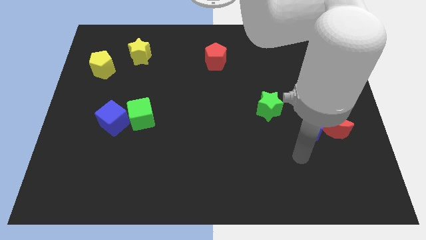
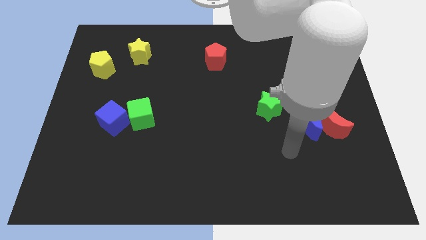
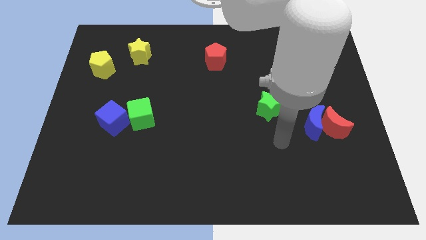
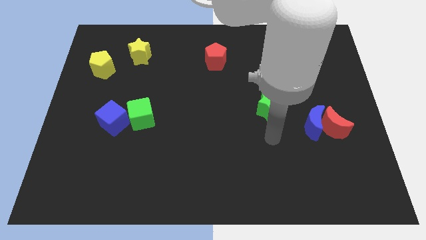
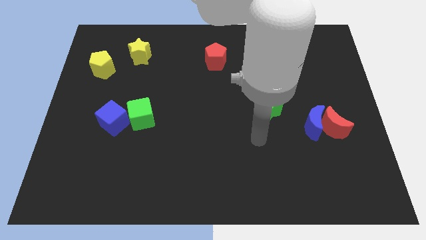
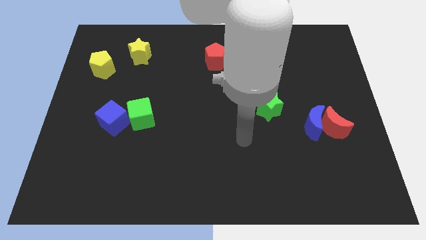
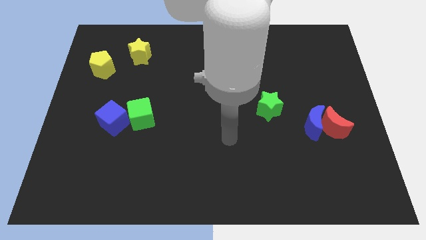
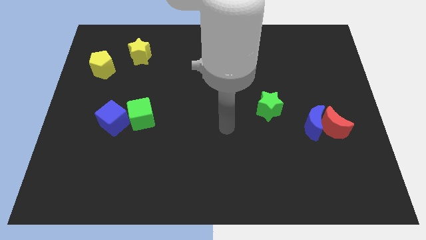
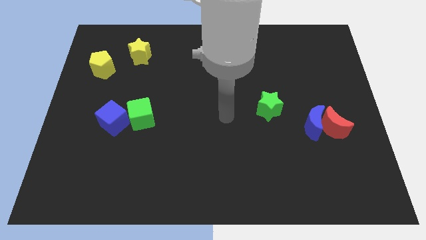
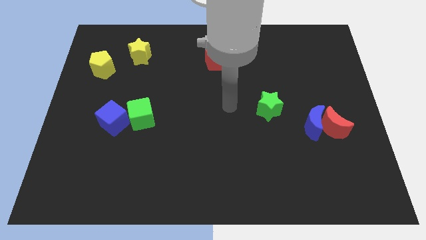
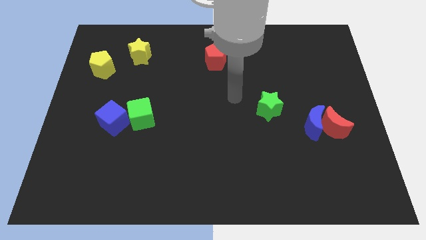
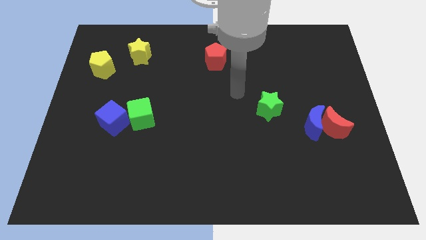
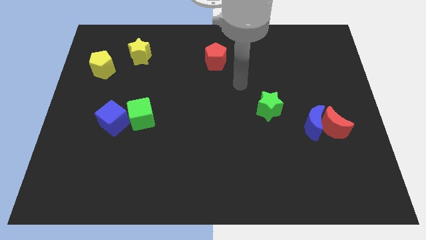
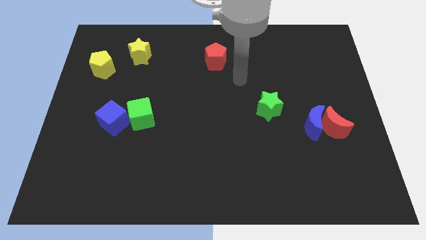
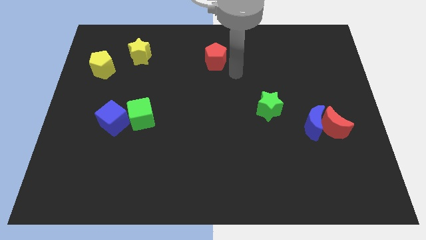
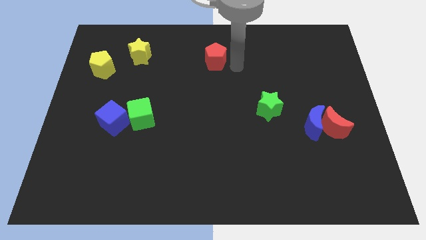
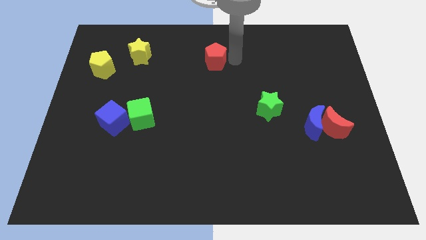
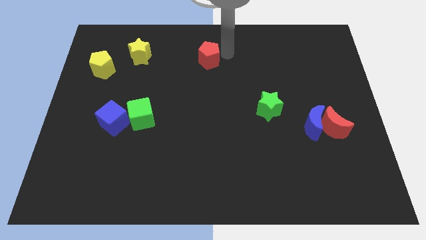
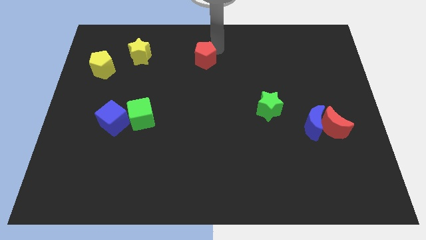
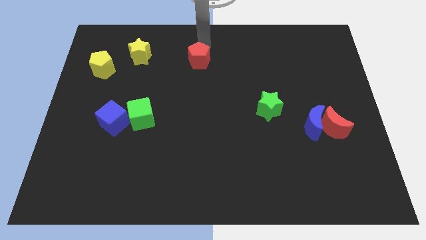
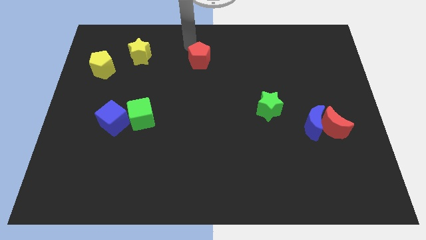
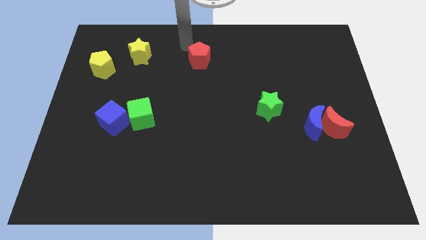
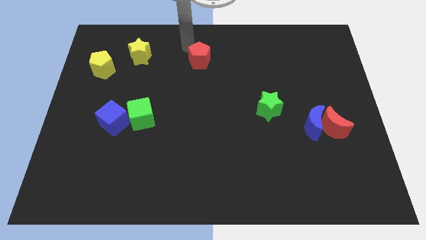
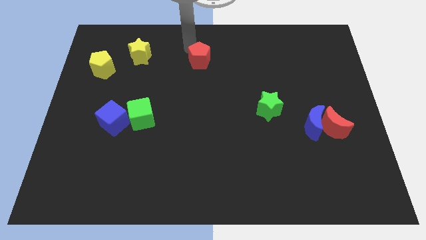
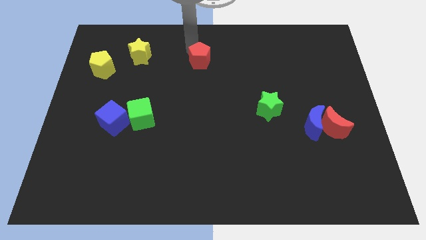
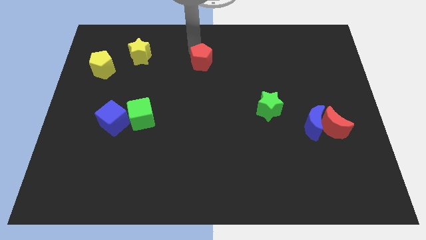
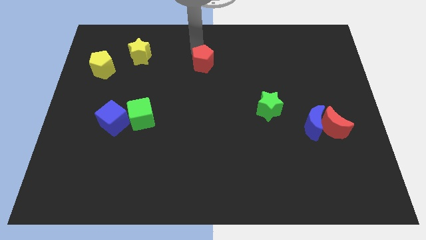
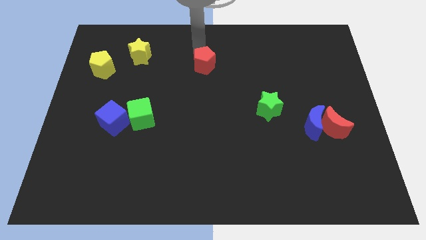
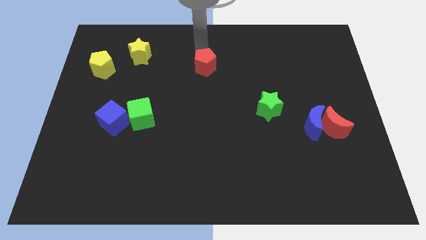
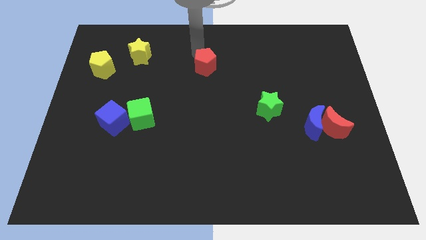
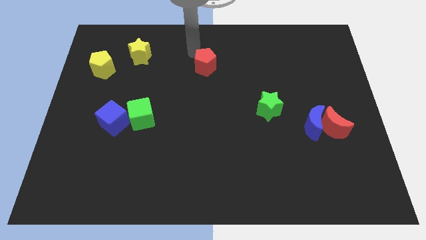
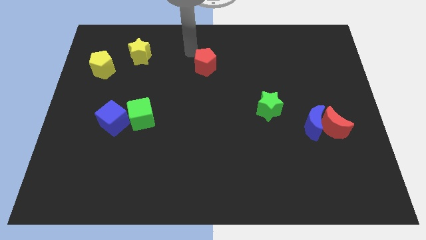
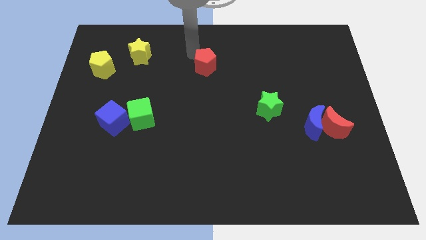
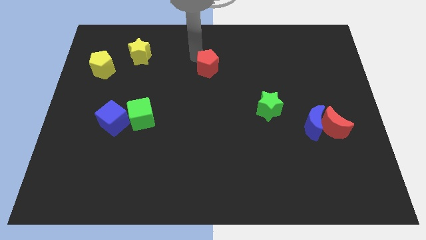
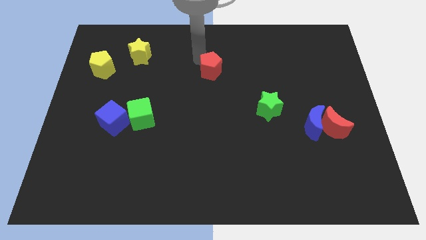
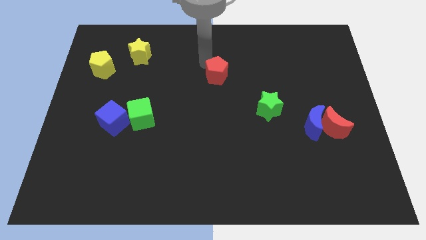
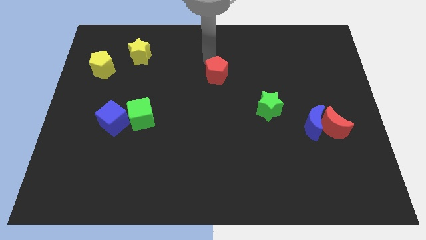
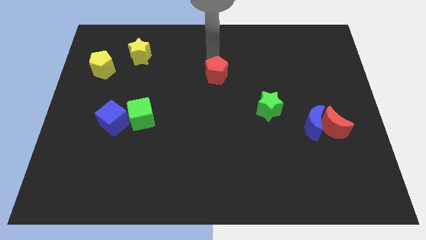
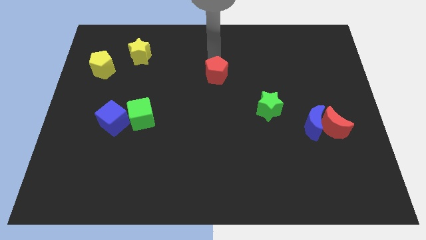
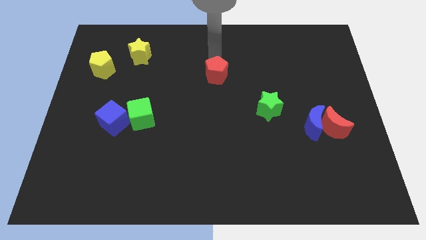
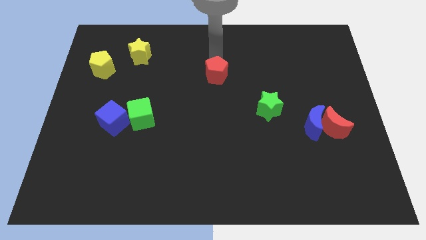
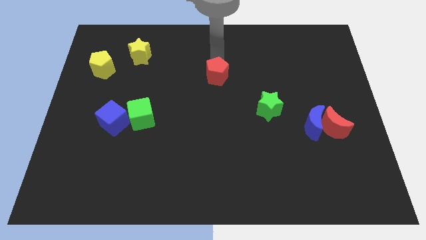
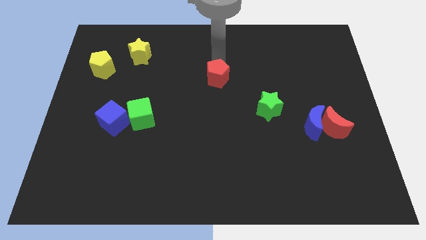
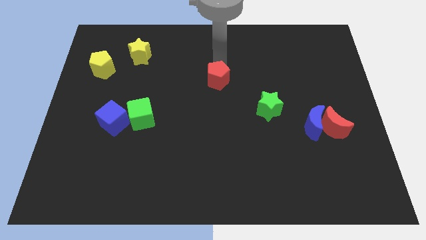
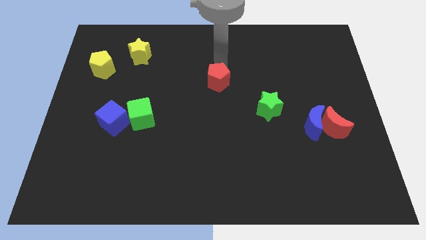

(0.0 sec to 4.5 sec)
move the red pentagon downwards a little bit

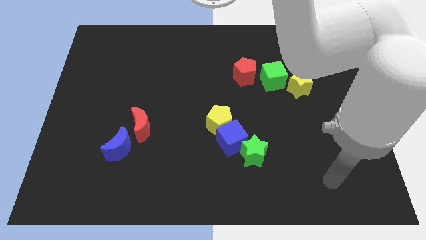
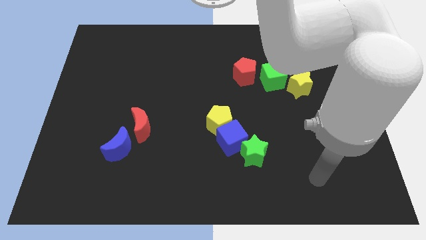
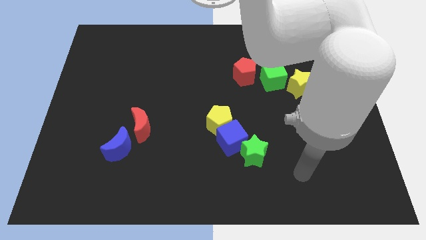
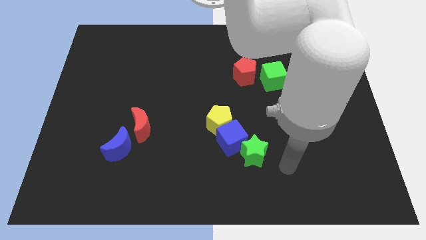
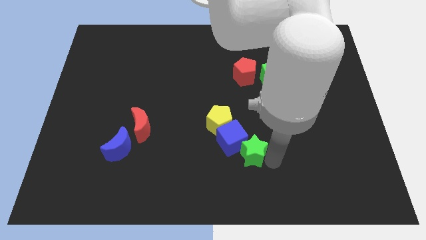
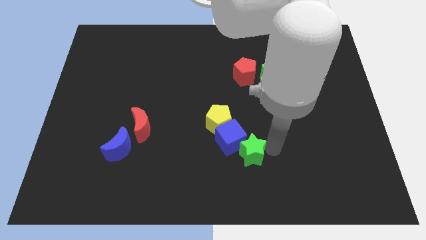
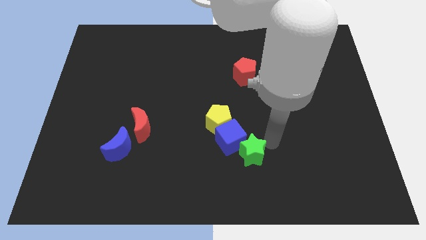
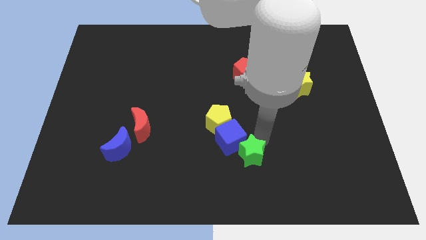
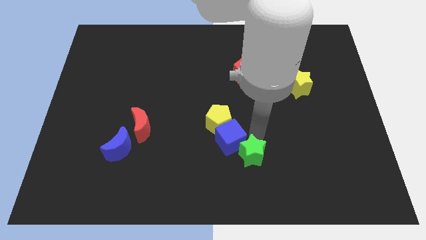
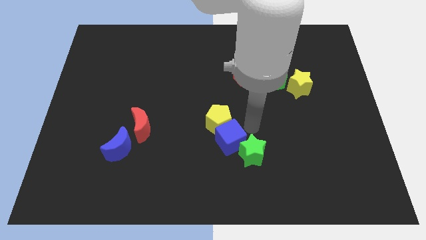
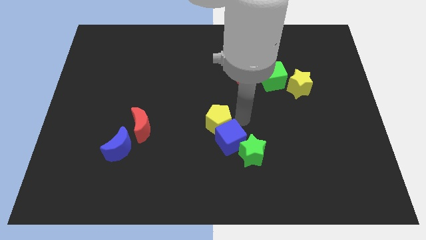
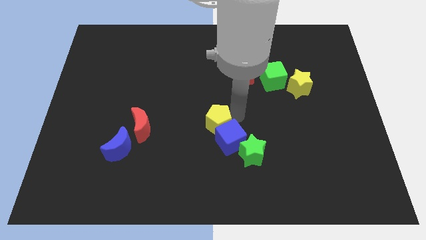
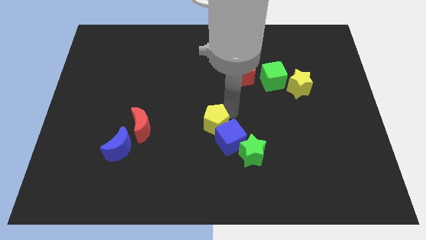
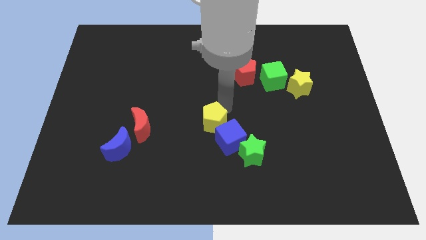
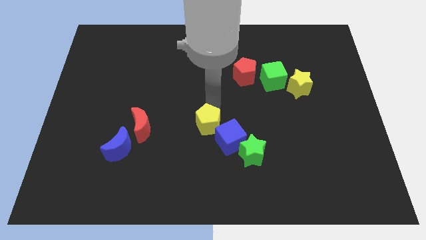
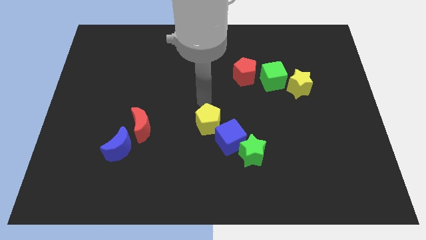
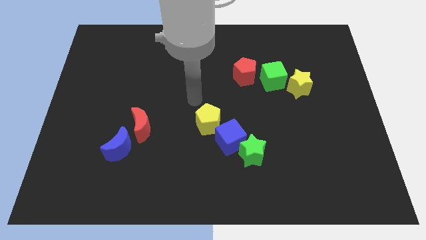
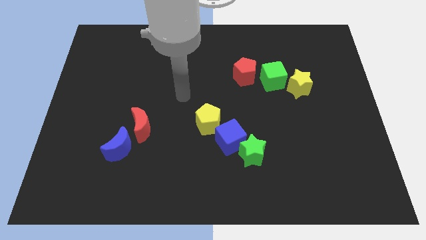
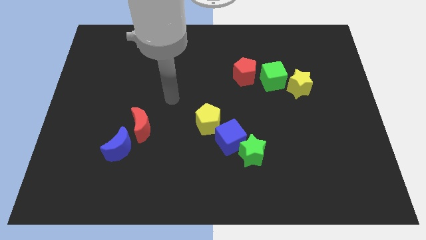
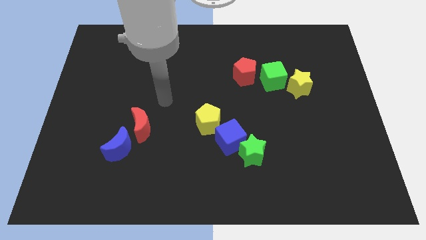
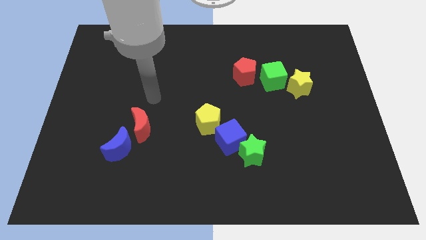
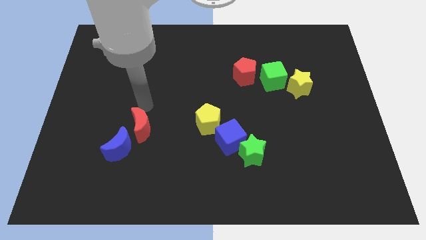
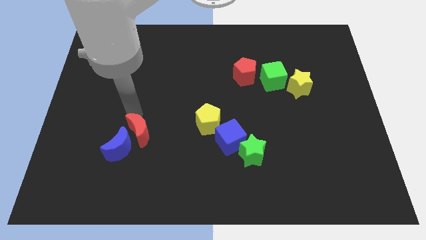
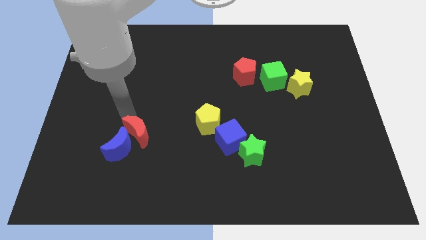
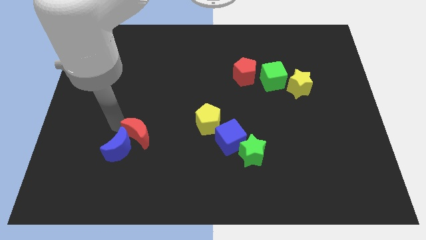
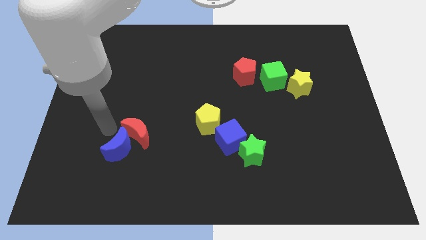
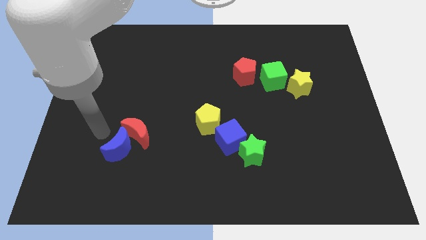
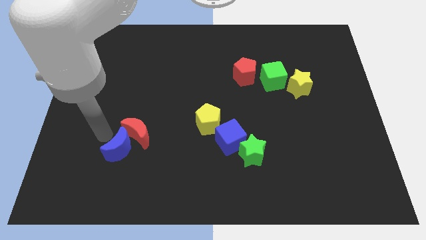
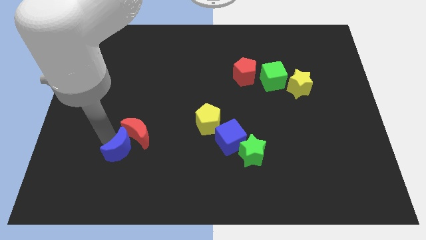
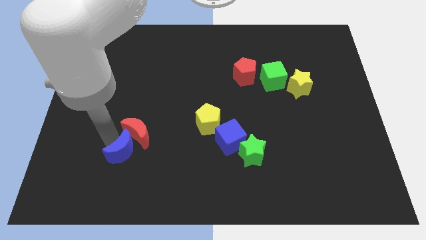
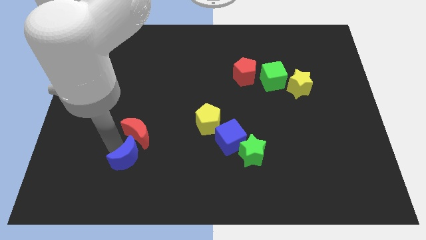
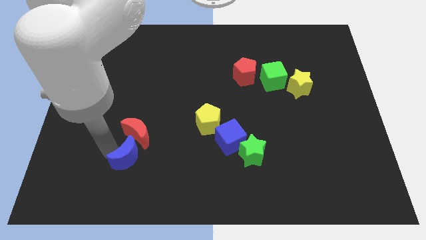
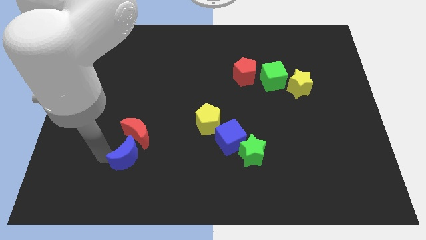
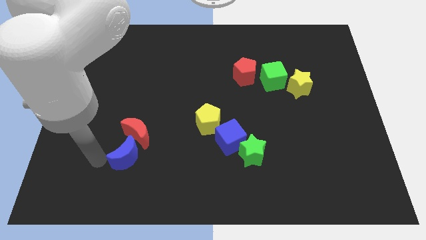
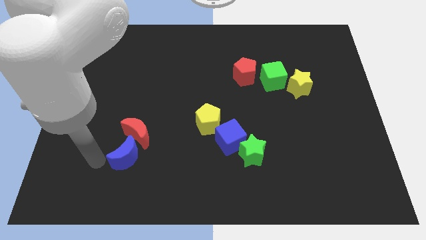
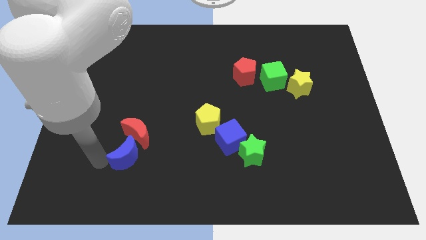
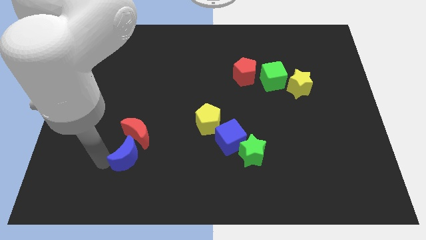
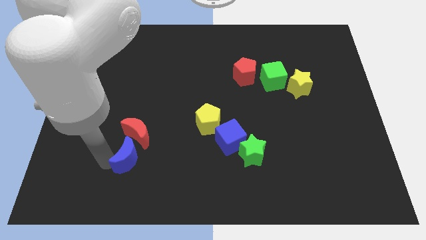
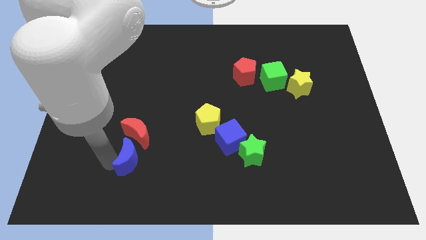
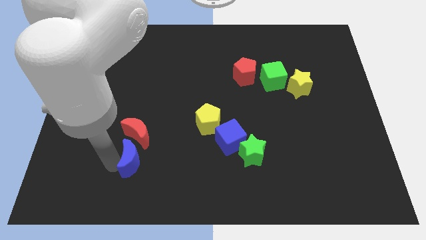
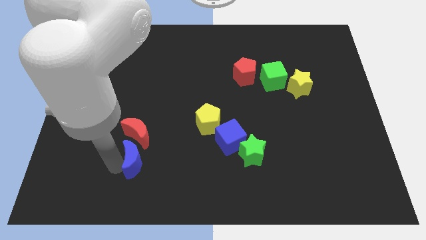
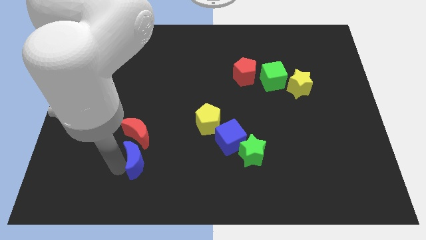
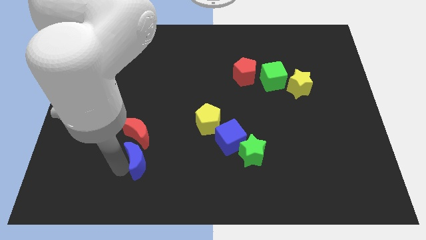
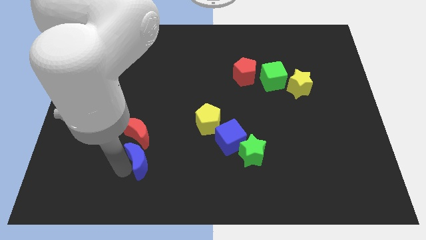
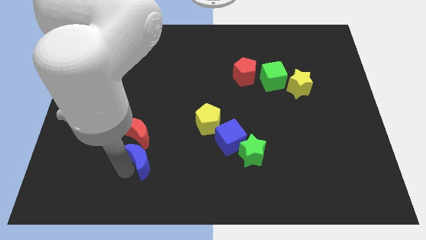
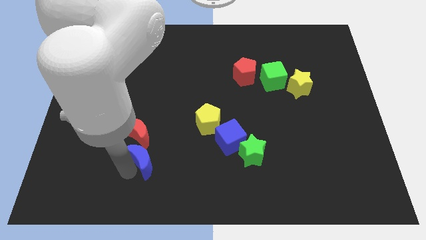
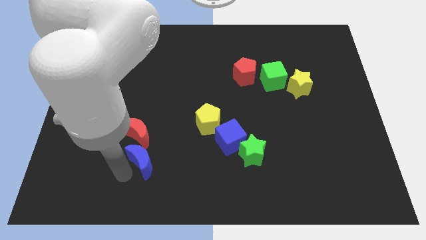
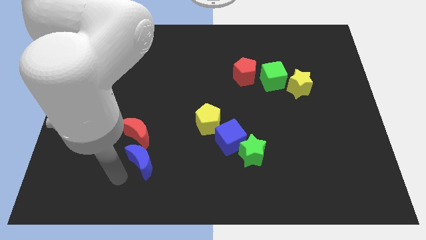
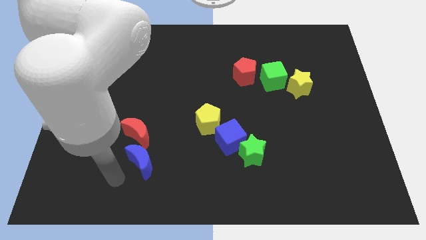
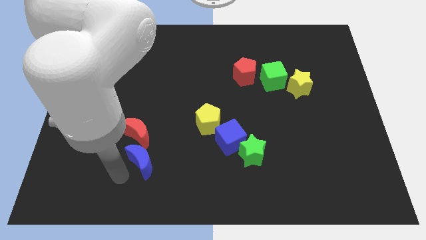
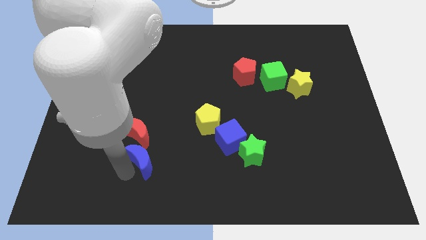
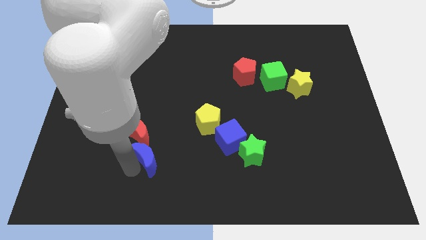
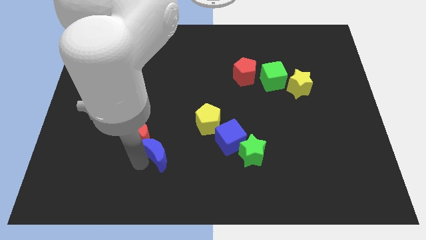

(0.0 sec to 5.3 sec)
push the blue moon somewhat to the right
